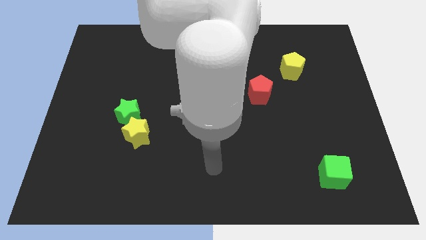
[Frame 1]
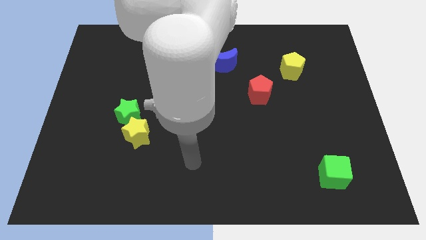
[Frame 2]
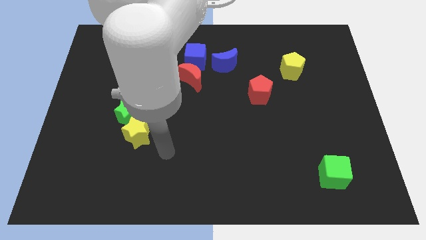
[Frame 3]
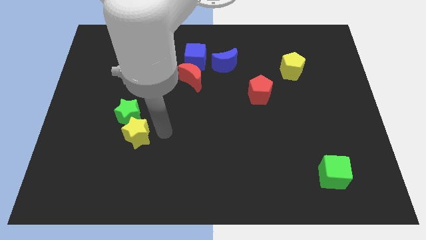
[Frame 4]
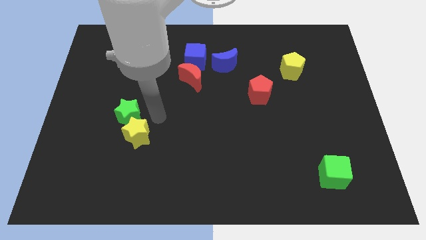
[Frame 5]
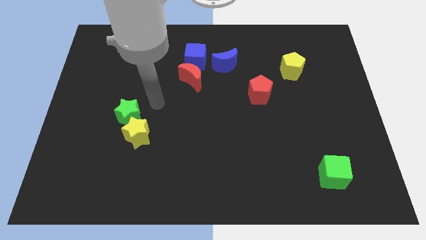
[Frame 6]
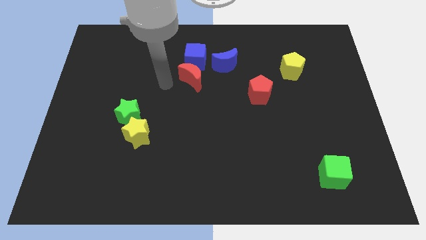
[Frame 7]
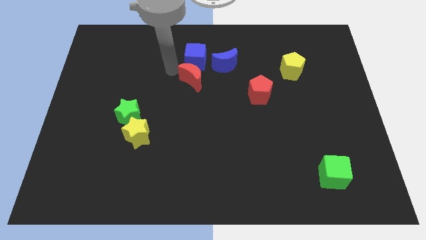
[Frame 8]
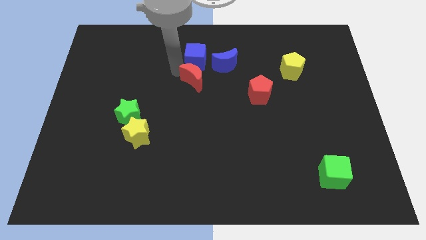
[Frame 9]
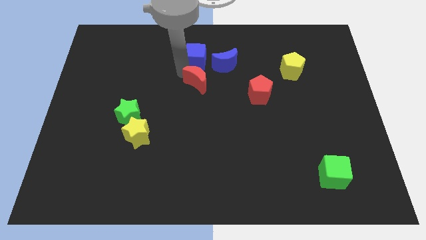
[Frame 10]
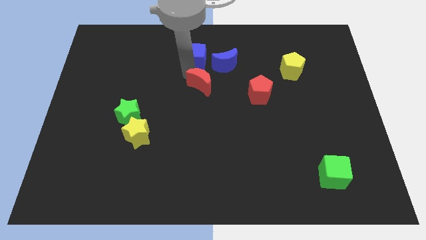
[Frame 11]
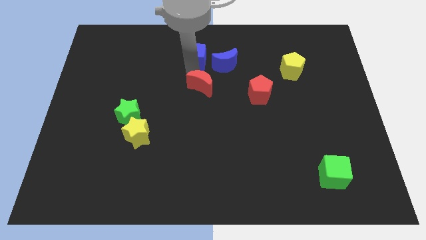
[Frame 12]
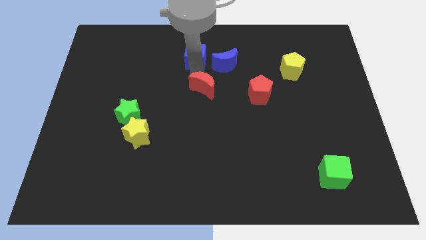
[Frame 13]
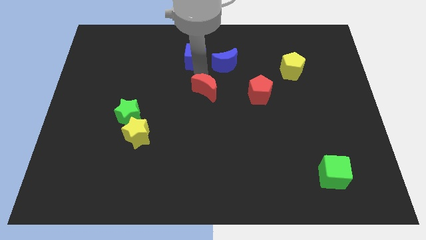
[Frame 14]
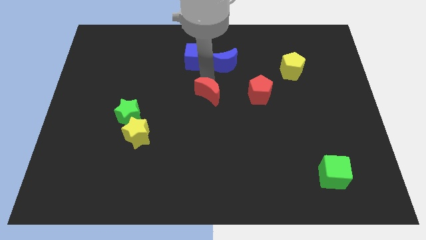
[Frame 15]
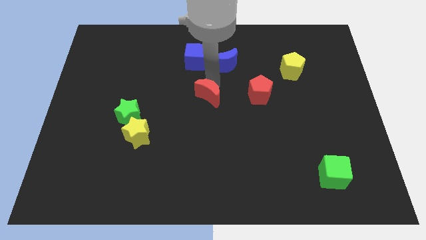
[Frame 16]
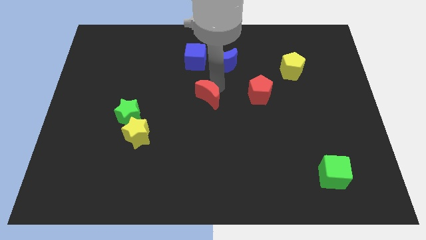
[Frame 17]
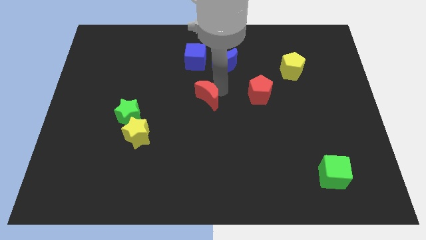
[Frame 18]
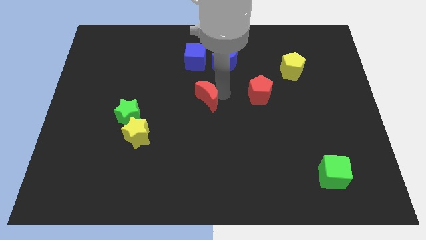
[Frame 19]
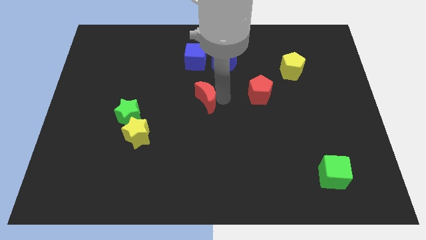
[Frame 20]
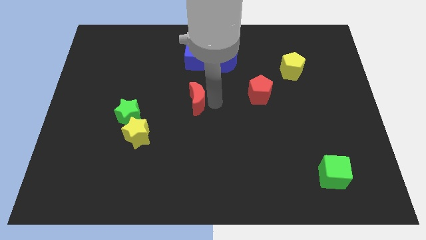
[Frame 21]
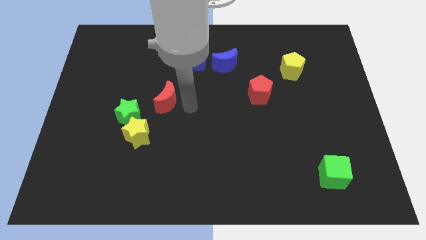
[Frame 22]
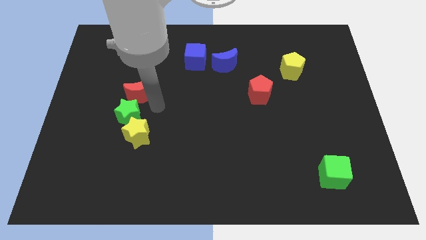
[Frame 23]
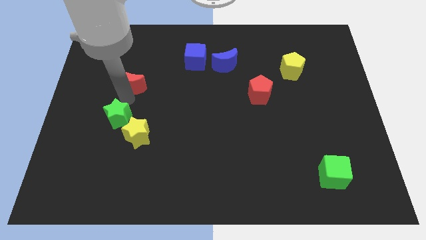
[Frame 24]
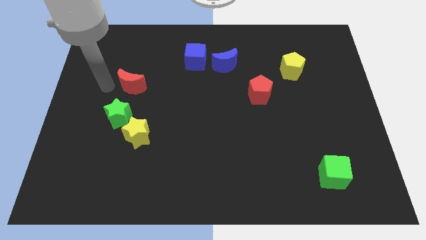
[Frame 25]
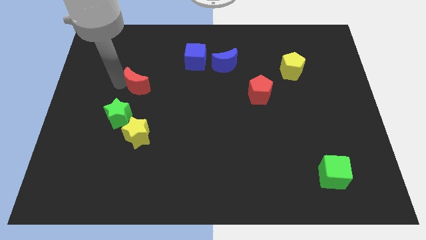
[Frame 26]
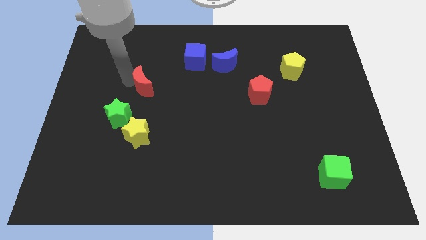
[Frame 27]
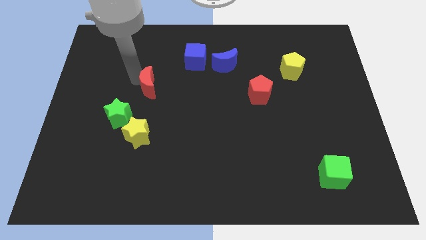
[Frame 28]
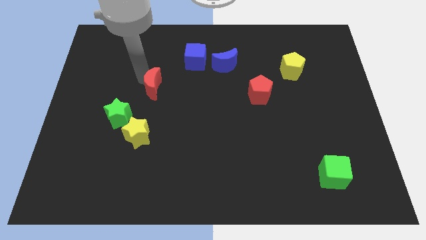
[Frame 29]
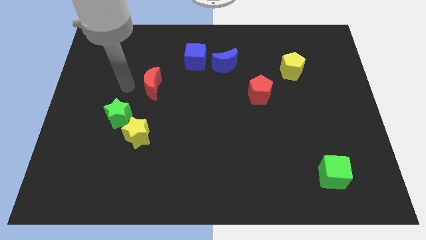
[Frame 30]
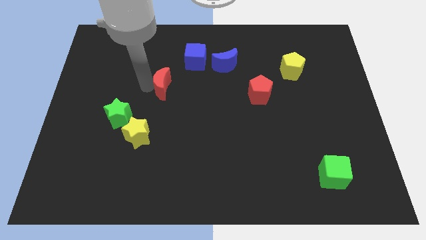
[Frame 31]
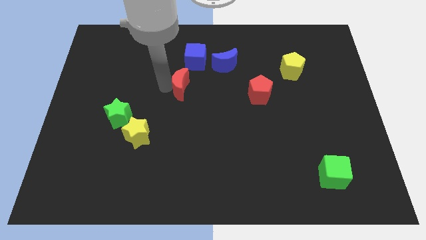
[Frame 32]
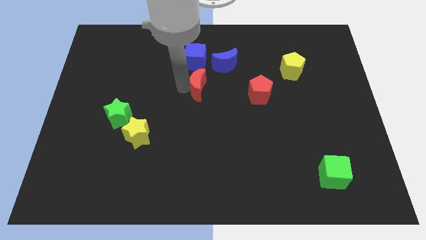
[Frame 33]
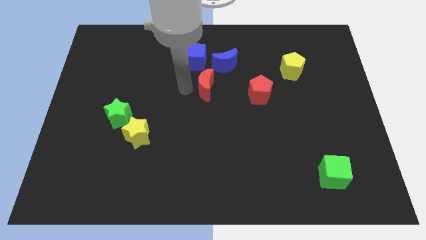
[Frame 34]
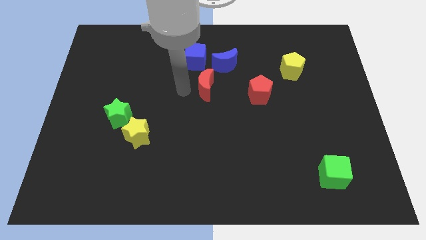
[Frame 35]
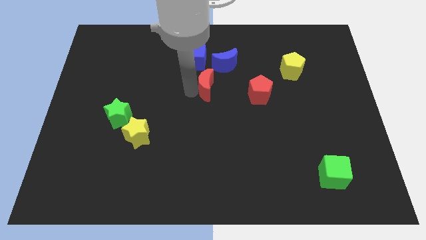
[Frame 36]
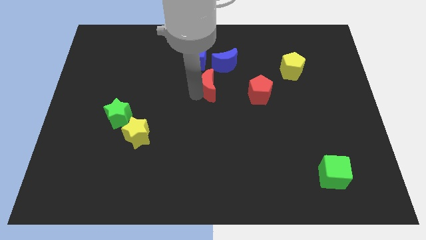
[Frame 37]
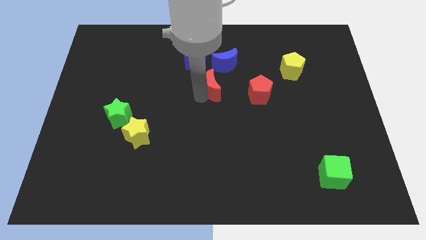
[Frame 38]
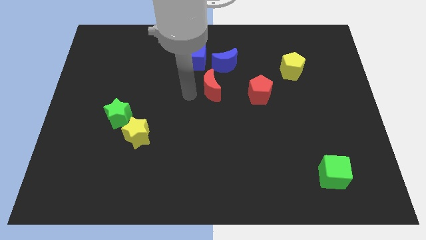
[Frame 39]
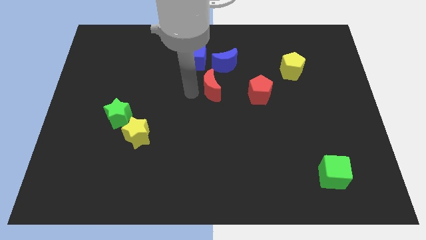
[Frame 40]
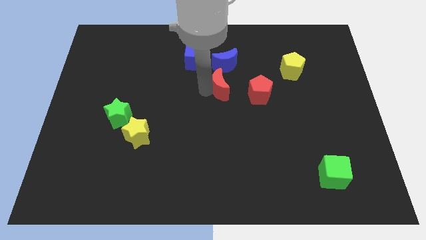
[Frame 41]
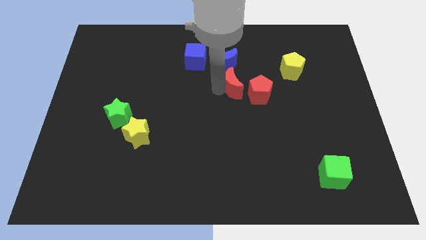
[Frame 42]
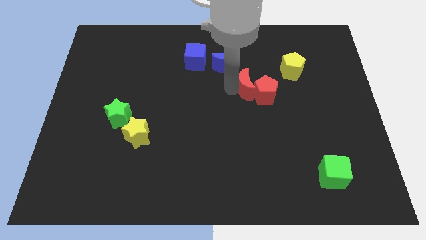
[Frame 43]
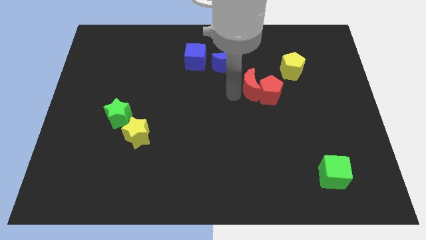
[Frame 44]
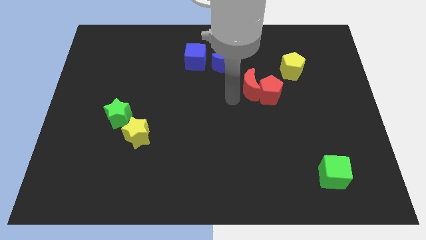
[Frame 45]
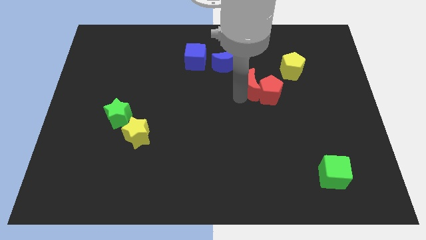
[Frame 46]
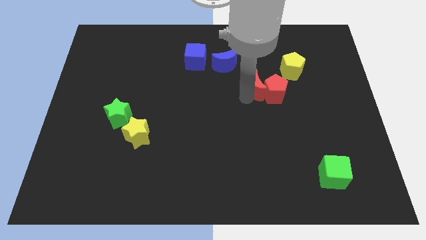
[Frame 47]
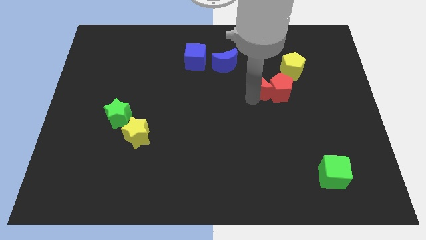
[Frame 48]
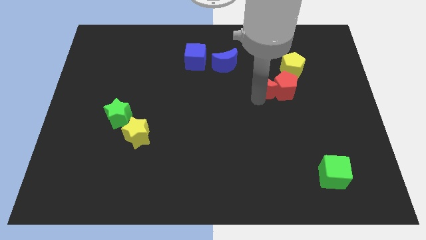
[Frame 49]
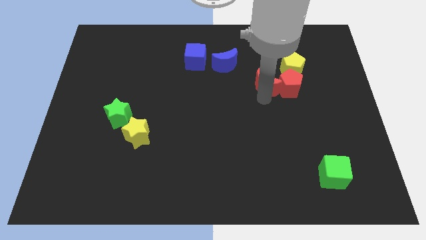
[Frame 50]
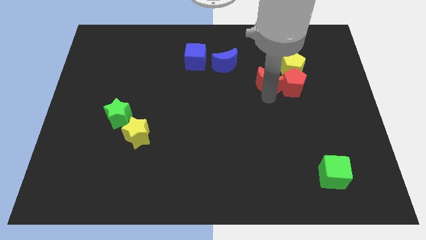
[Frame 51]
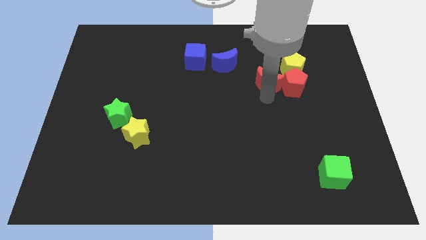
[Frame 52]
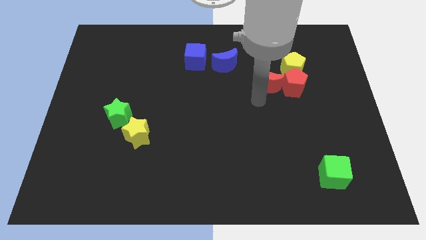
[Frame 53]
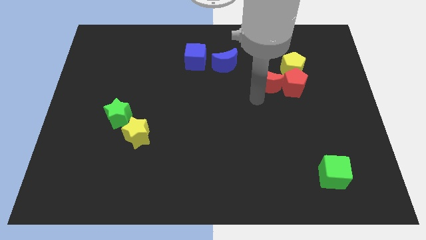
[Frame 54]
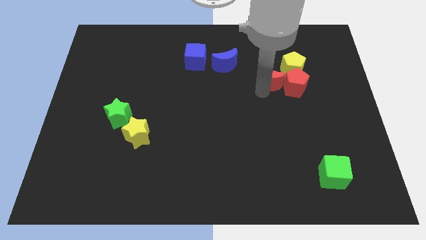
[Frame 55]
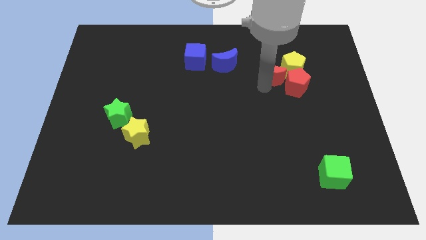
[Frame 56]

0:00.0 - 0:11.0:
move the red moon next to the yellow pentagon
